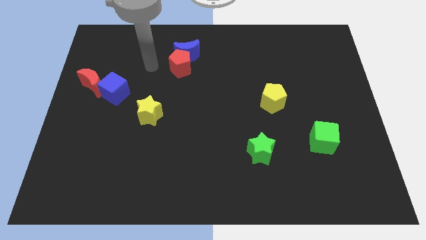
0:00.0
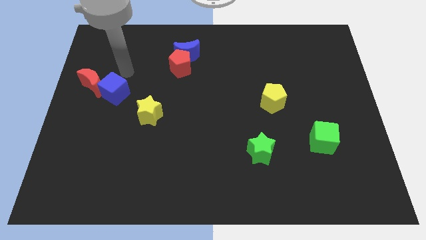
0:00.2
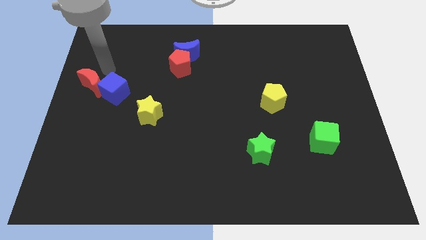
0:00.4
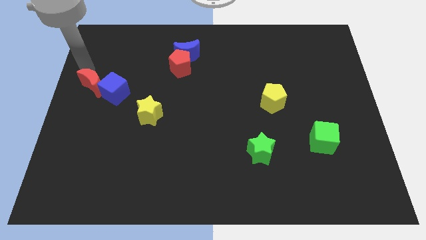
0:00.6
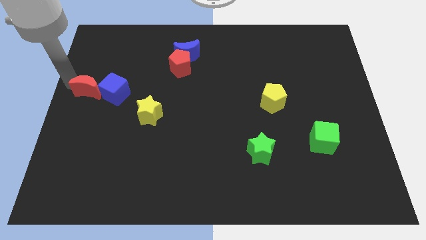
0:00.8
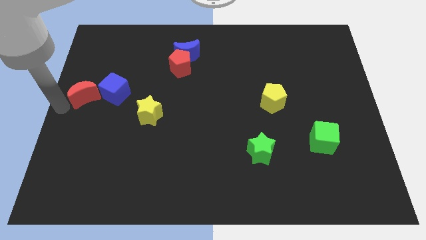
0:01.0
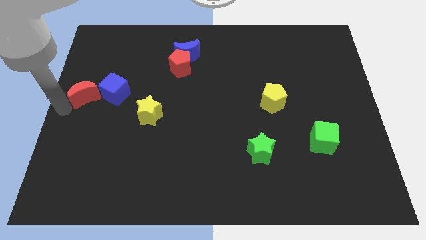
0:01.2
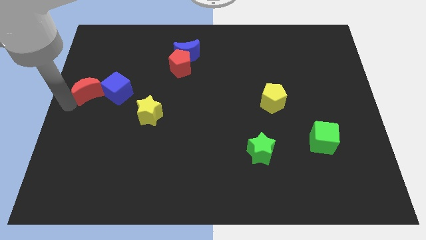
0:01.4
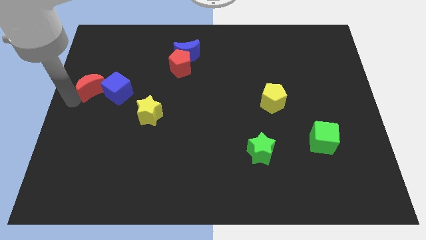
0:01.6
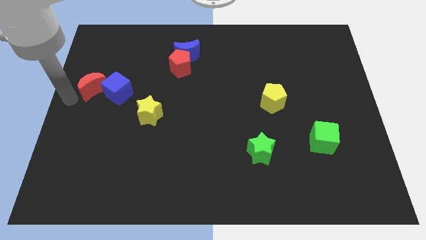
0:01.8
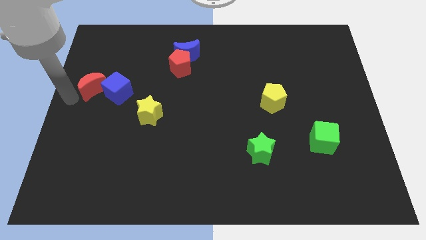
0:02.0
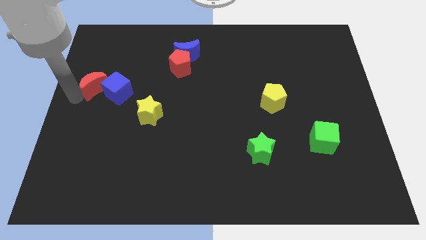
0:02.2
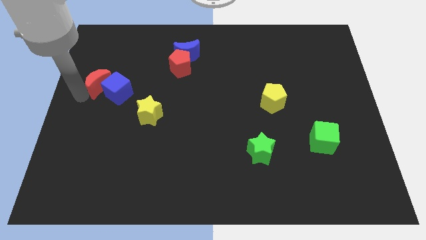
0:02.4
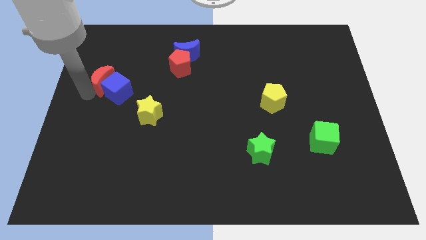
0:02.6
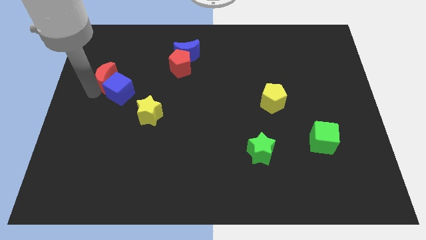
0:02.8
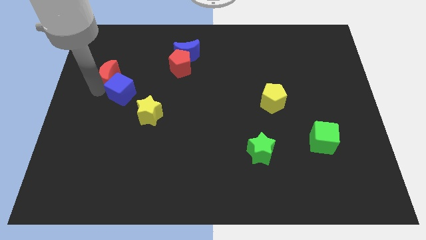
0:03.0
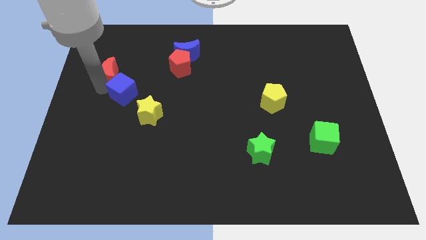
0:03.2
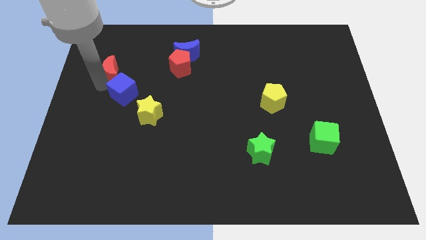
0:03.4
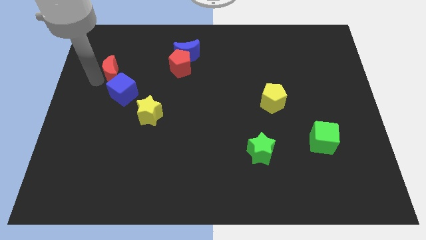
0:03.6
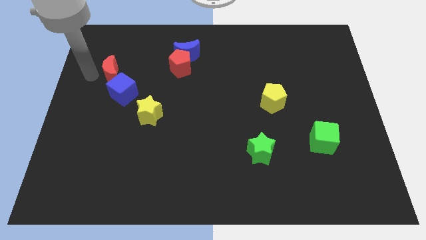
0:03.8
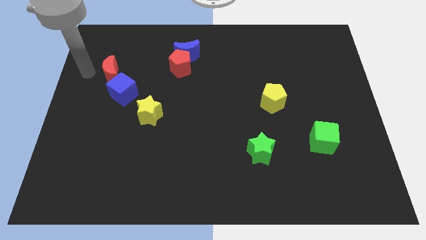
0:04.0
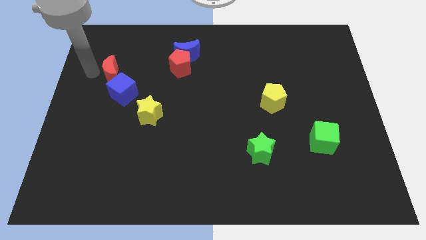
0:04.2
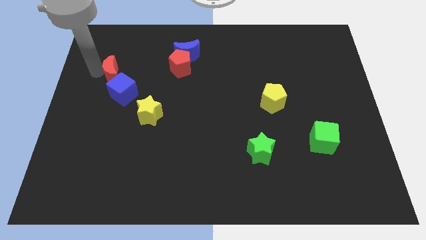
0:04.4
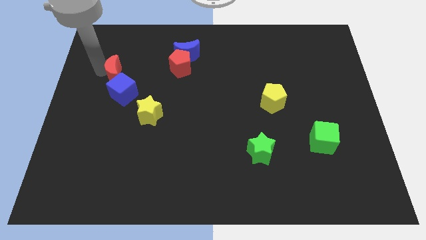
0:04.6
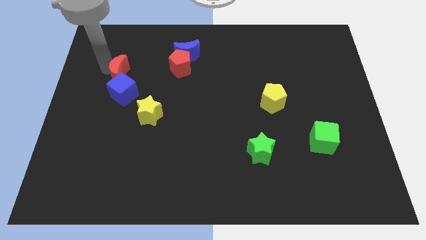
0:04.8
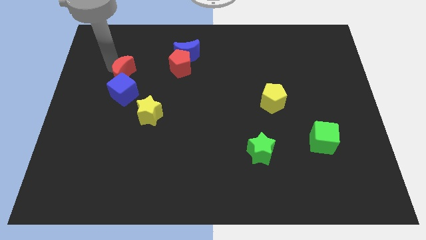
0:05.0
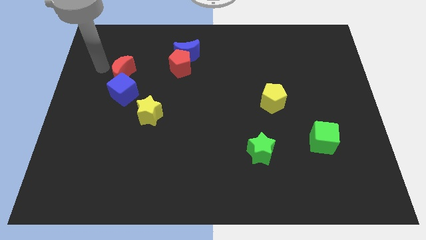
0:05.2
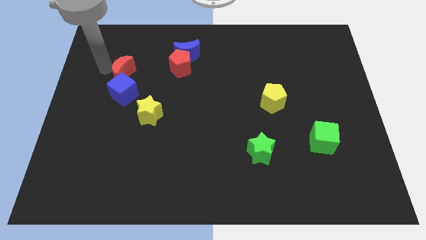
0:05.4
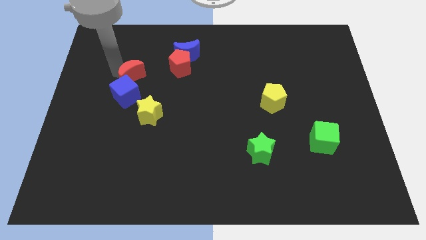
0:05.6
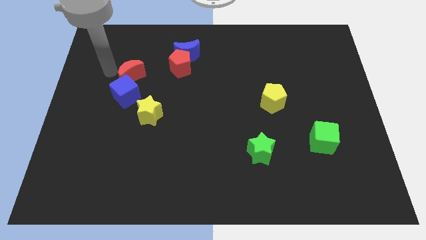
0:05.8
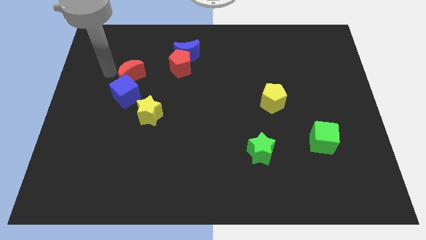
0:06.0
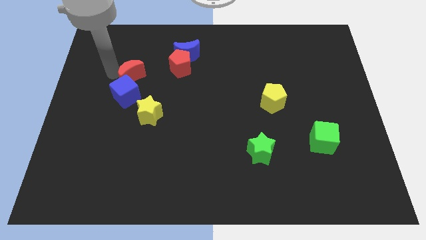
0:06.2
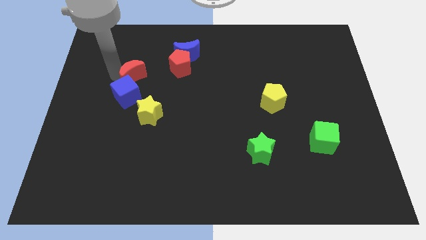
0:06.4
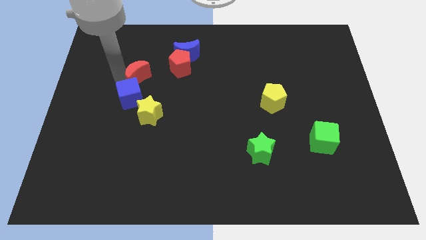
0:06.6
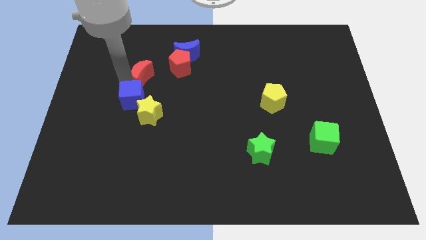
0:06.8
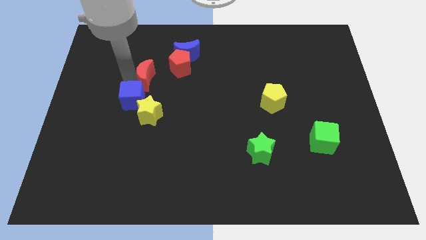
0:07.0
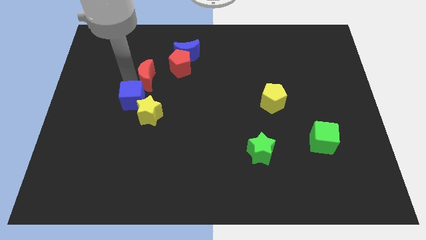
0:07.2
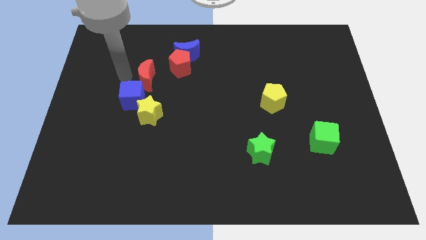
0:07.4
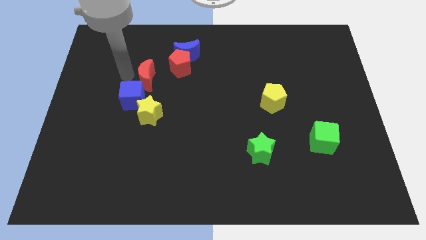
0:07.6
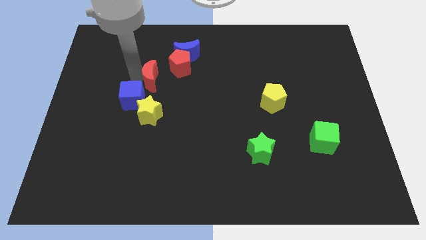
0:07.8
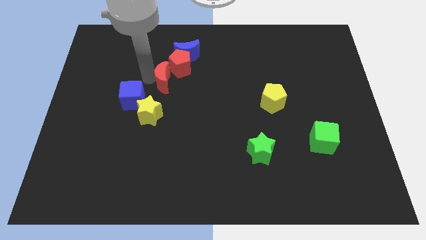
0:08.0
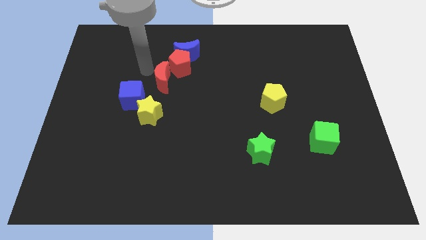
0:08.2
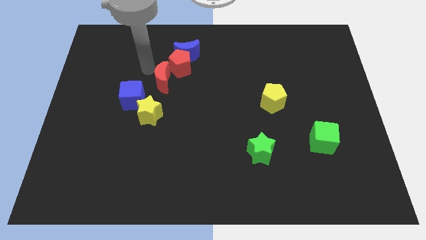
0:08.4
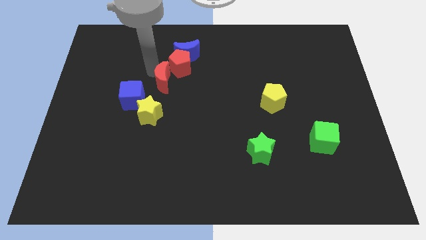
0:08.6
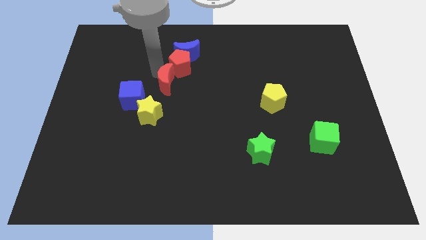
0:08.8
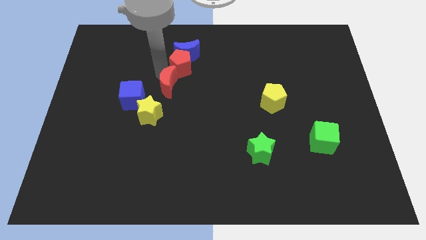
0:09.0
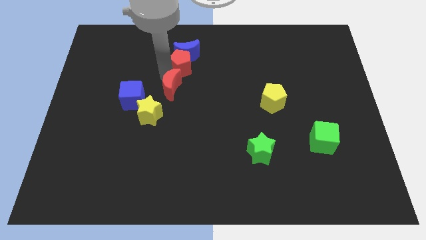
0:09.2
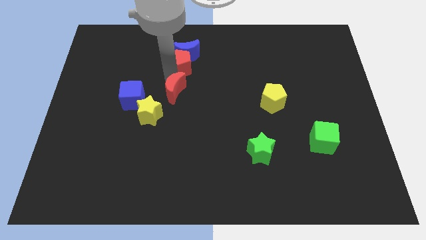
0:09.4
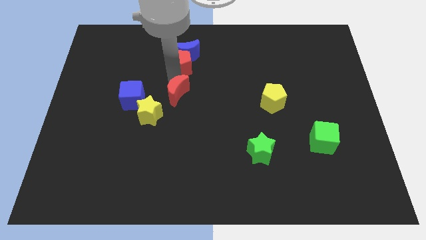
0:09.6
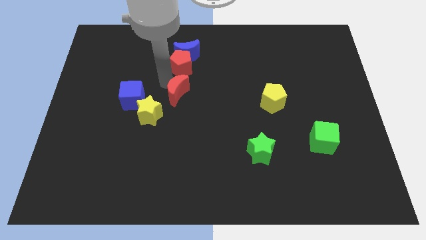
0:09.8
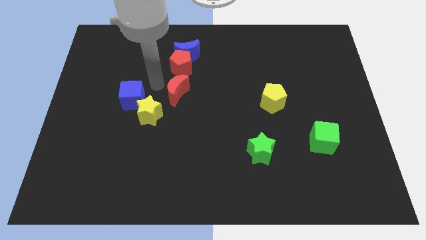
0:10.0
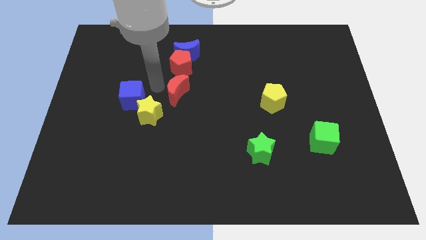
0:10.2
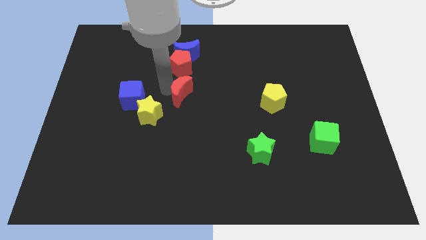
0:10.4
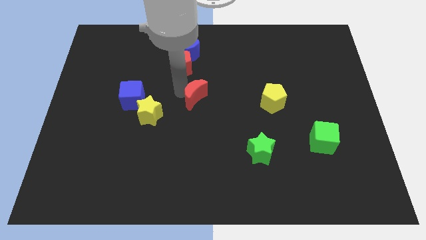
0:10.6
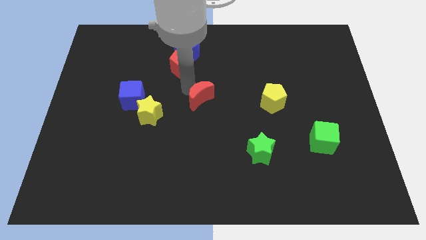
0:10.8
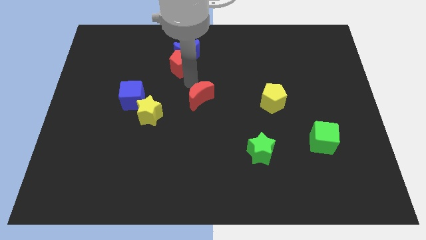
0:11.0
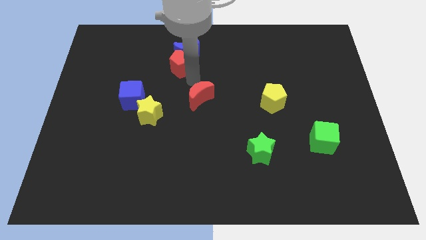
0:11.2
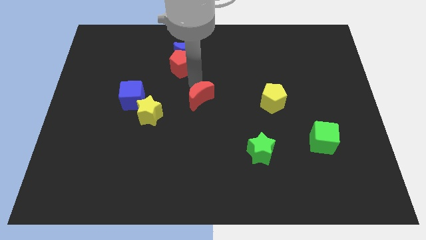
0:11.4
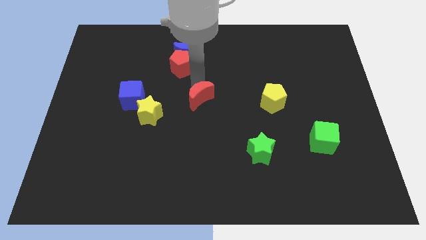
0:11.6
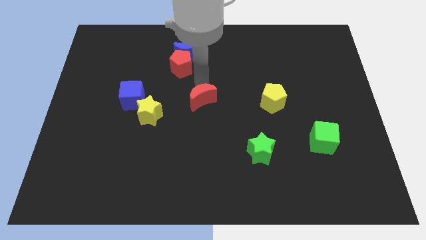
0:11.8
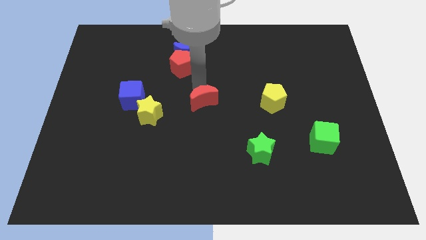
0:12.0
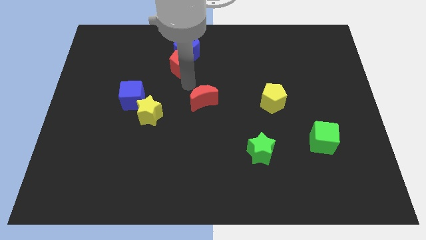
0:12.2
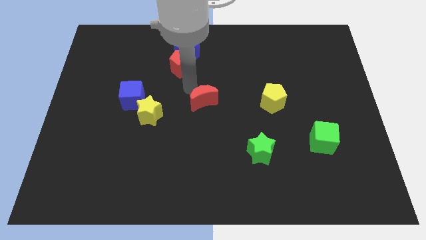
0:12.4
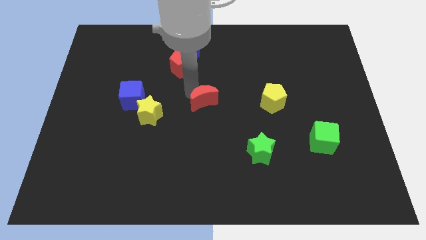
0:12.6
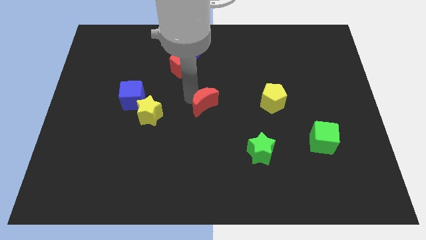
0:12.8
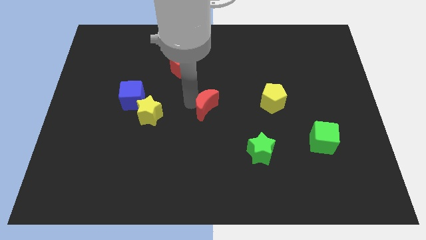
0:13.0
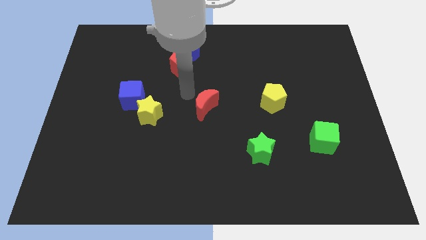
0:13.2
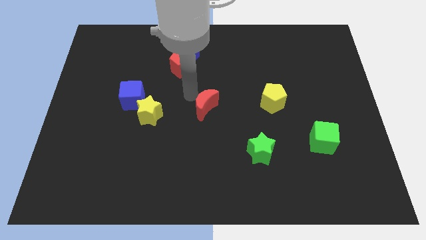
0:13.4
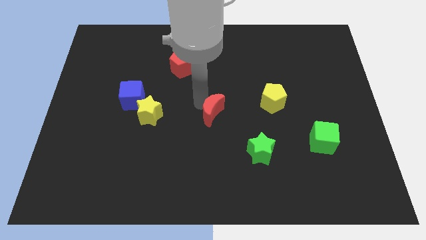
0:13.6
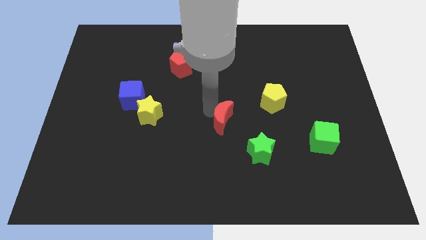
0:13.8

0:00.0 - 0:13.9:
move the red moon to the top left of the green star
